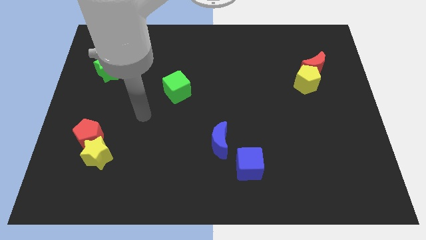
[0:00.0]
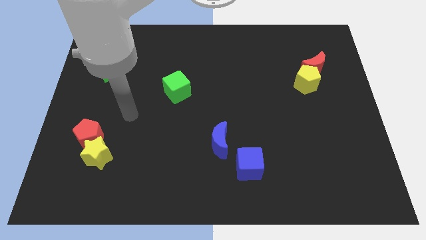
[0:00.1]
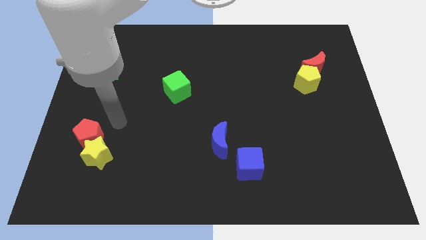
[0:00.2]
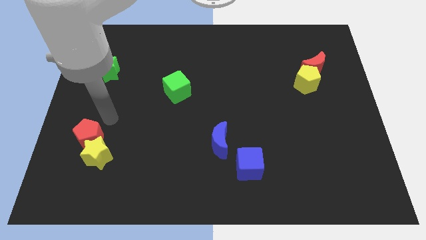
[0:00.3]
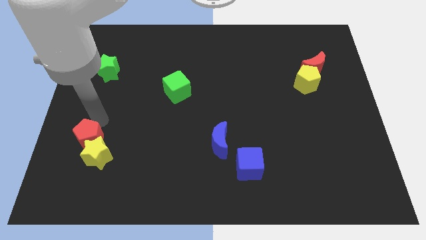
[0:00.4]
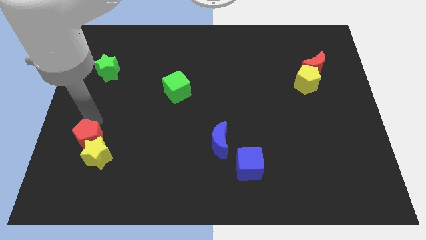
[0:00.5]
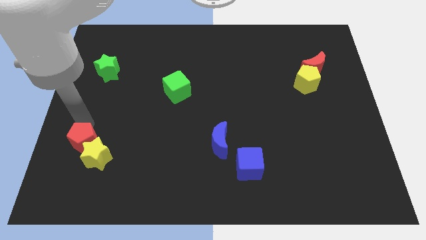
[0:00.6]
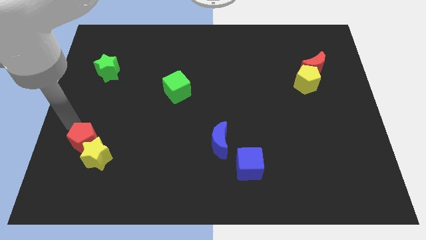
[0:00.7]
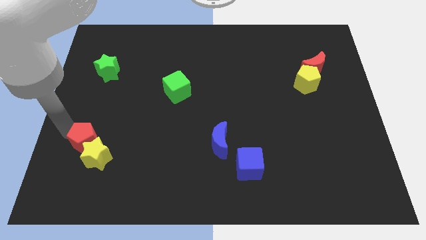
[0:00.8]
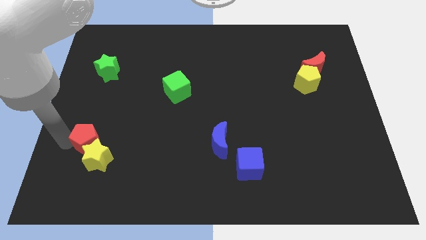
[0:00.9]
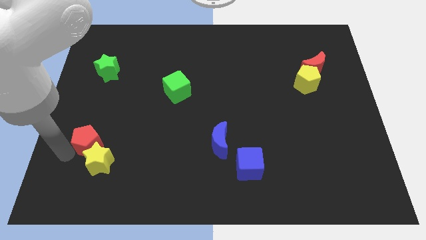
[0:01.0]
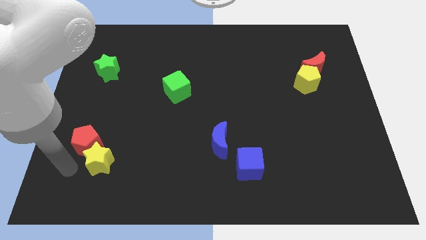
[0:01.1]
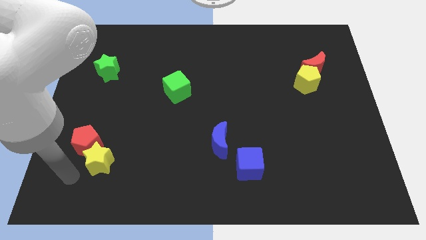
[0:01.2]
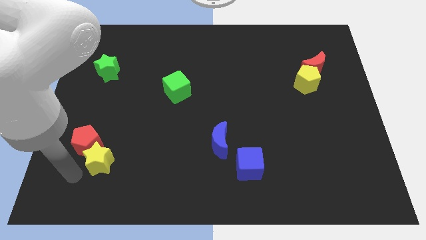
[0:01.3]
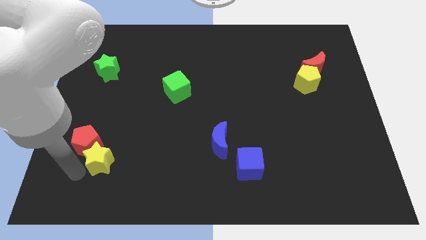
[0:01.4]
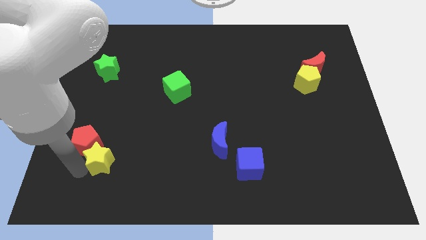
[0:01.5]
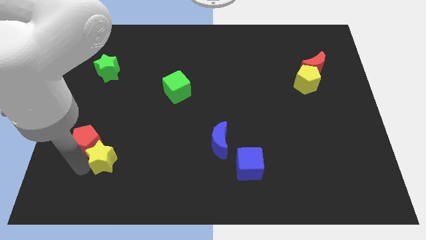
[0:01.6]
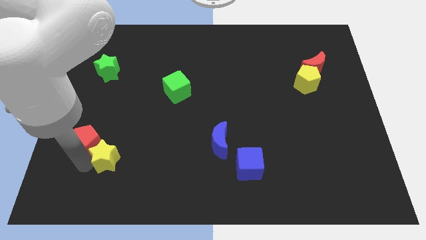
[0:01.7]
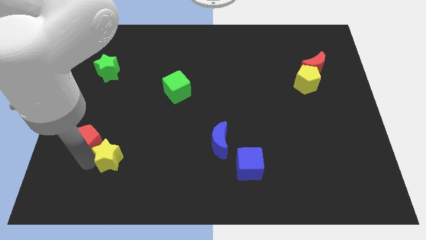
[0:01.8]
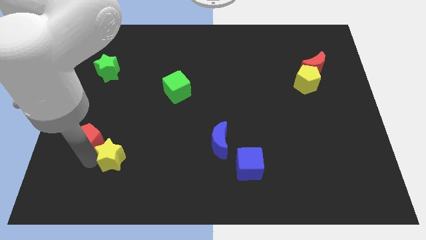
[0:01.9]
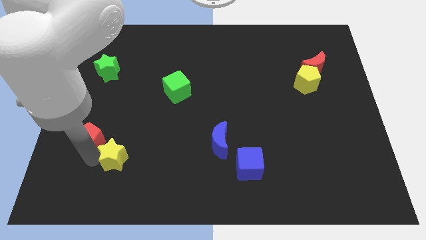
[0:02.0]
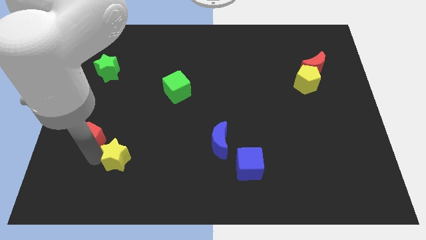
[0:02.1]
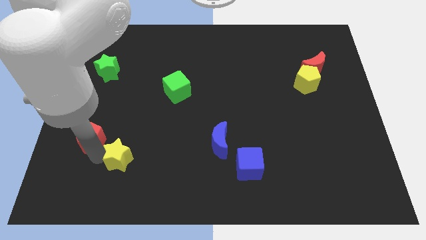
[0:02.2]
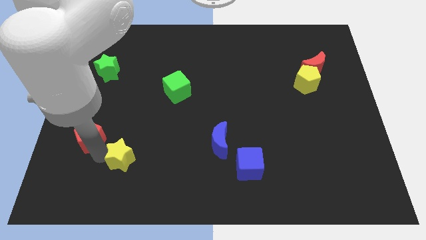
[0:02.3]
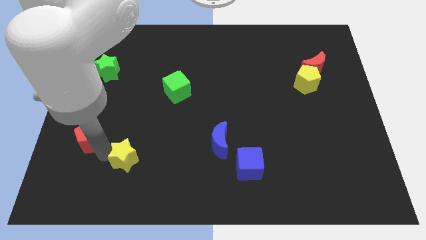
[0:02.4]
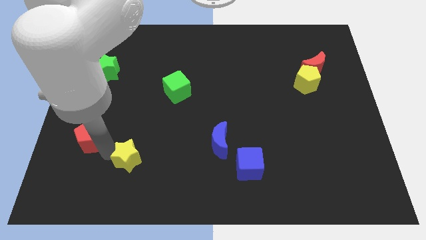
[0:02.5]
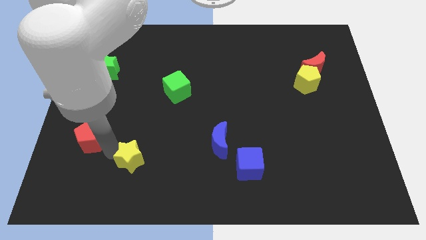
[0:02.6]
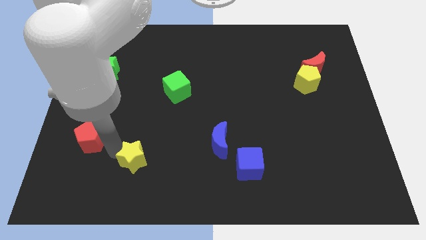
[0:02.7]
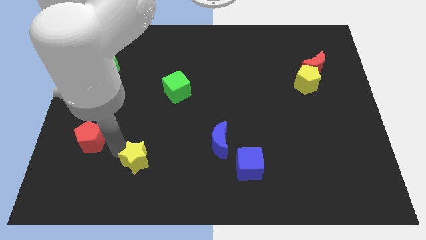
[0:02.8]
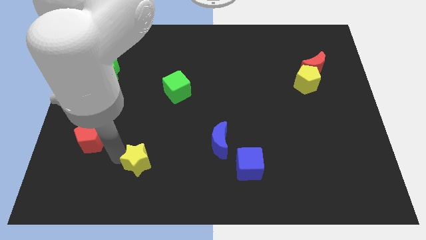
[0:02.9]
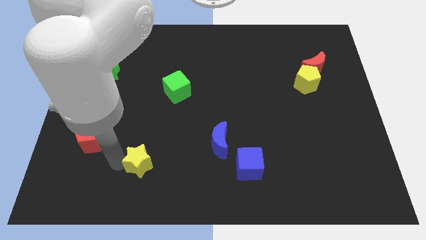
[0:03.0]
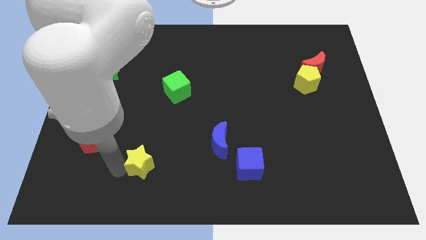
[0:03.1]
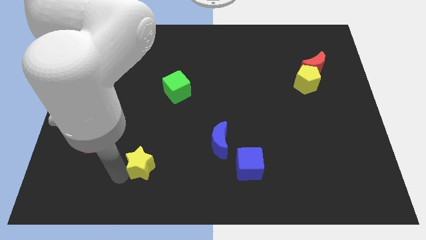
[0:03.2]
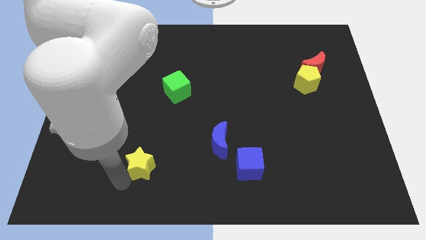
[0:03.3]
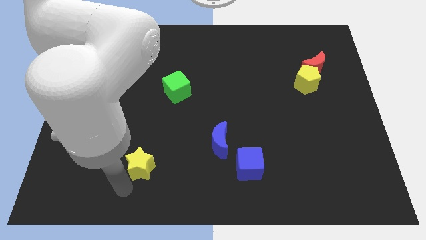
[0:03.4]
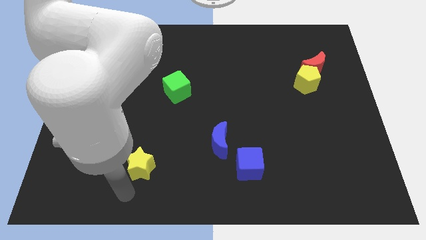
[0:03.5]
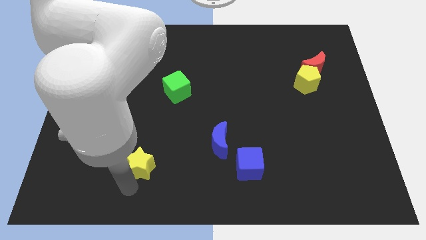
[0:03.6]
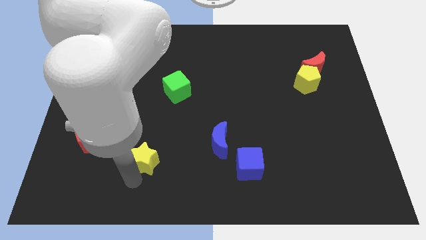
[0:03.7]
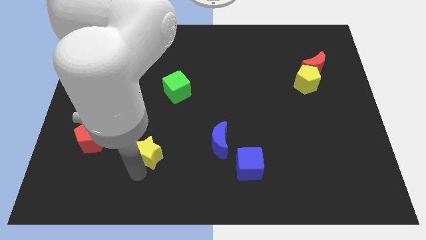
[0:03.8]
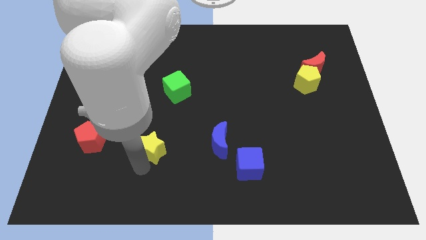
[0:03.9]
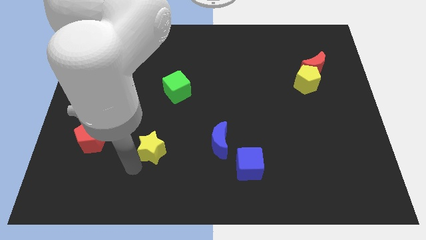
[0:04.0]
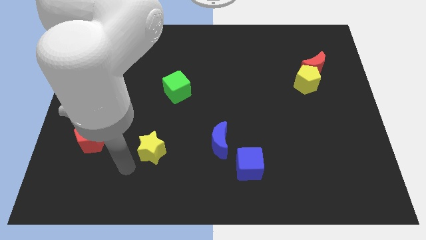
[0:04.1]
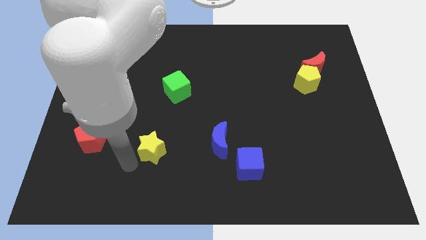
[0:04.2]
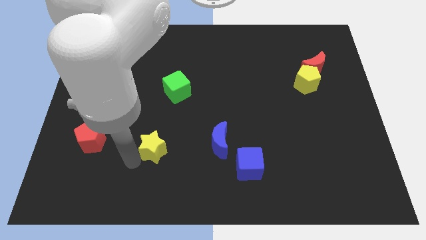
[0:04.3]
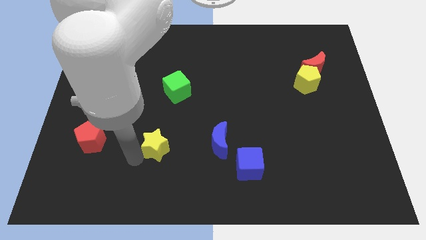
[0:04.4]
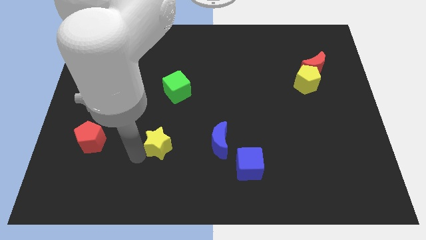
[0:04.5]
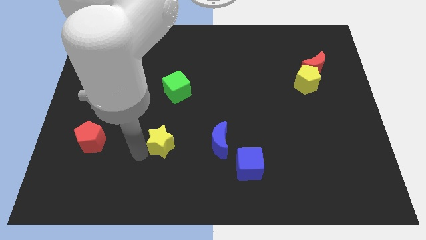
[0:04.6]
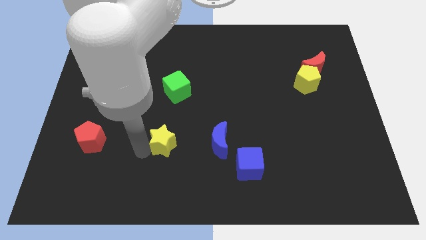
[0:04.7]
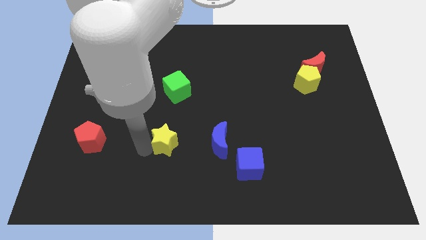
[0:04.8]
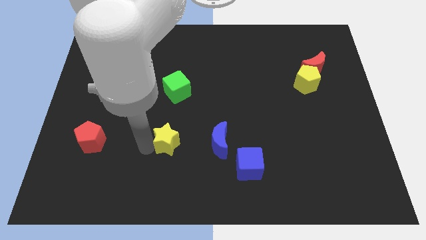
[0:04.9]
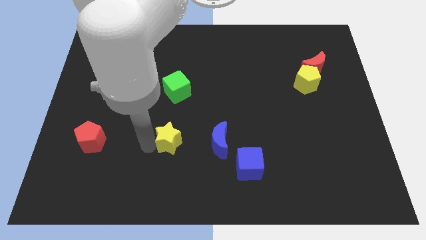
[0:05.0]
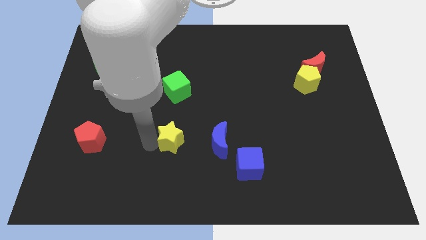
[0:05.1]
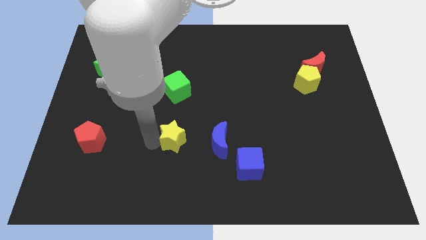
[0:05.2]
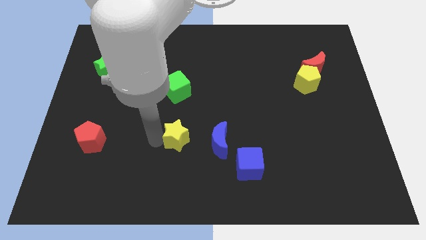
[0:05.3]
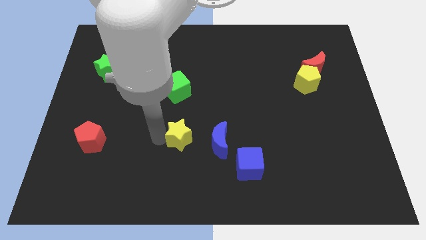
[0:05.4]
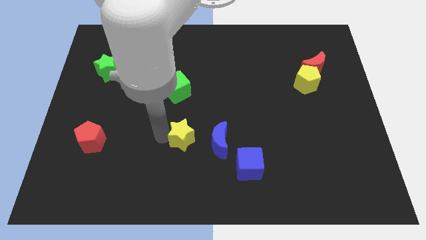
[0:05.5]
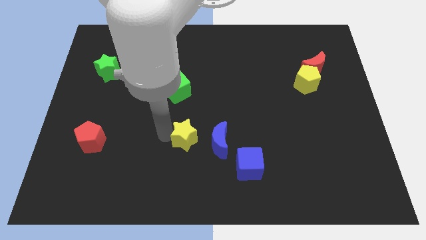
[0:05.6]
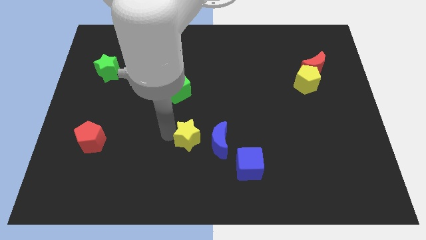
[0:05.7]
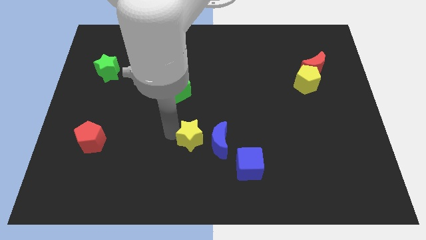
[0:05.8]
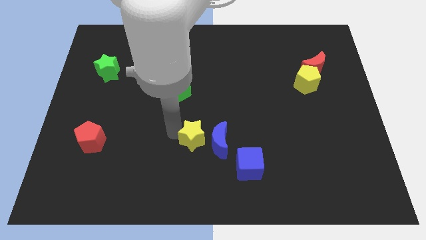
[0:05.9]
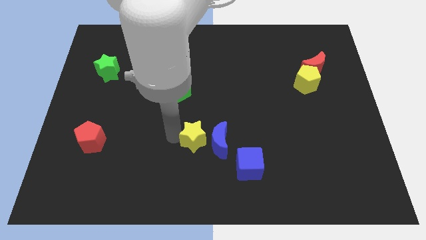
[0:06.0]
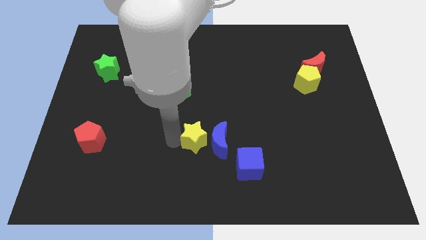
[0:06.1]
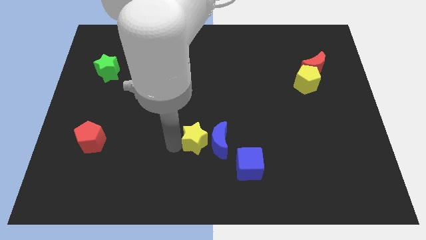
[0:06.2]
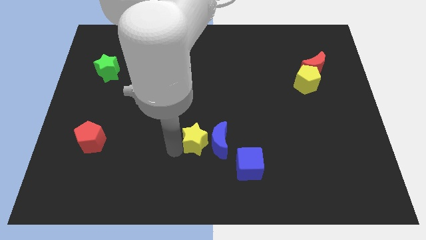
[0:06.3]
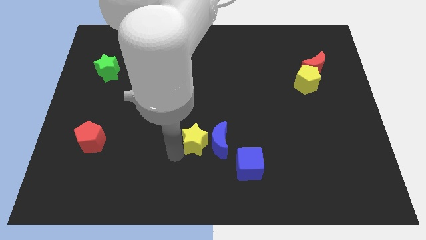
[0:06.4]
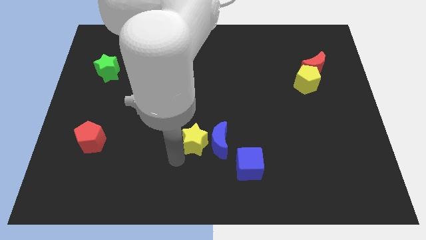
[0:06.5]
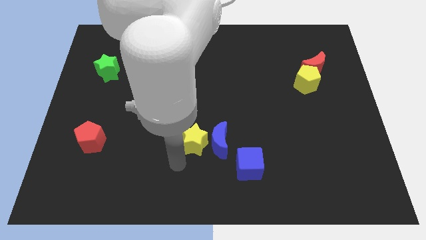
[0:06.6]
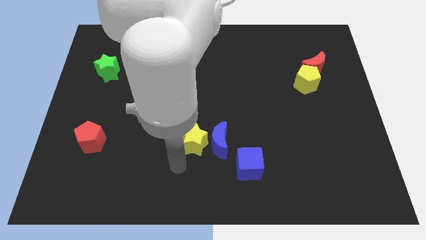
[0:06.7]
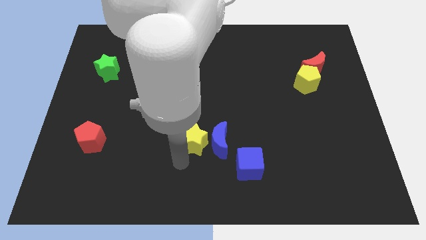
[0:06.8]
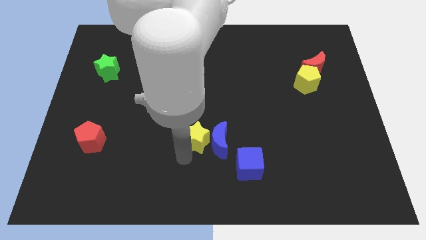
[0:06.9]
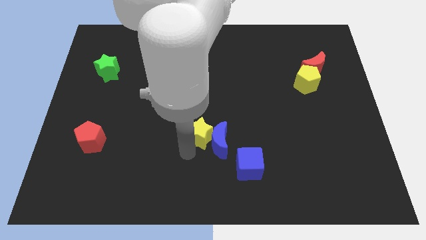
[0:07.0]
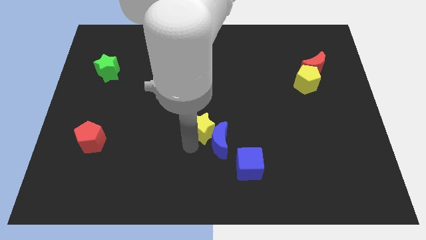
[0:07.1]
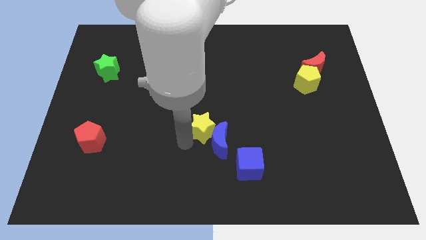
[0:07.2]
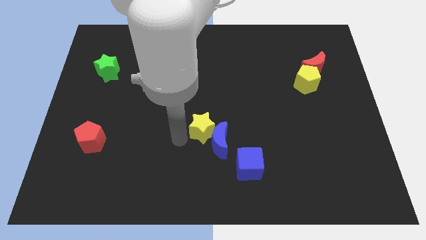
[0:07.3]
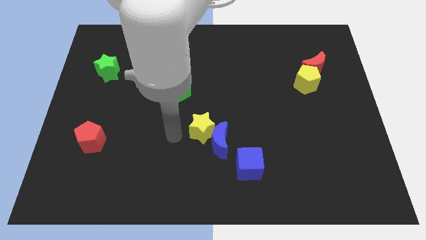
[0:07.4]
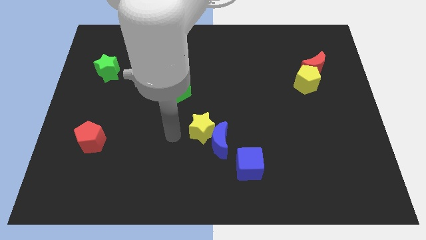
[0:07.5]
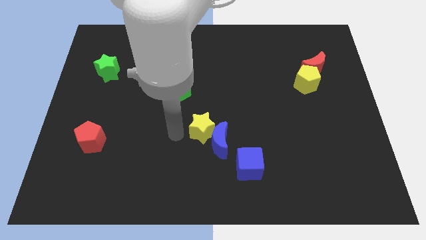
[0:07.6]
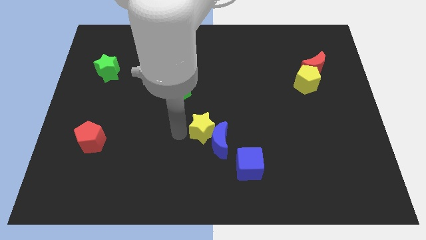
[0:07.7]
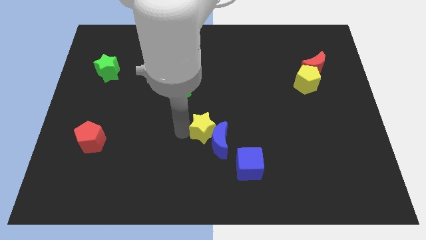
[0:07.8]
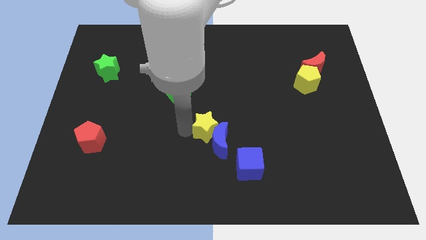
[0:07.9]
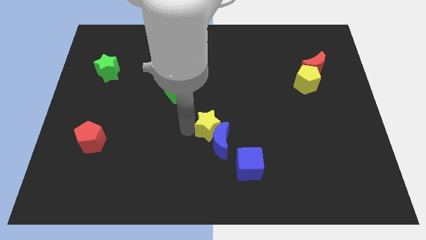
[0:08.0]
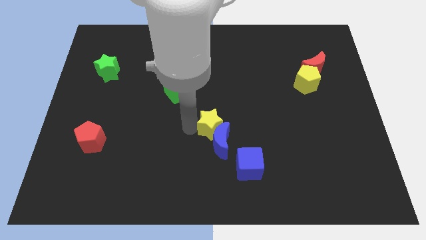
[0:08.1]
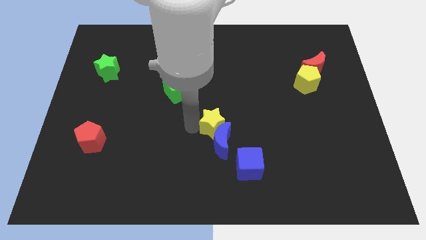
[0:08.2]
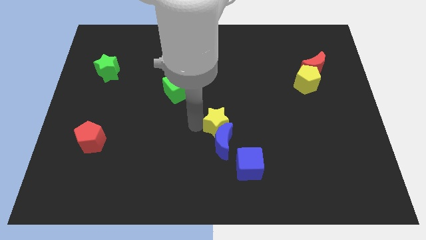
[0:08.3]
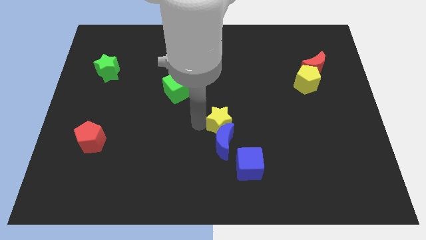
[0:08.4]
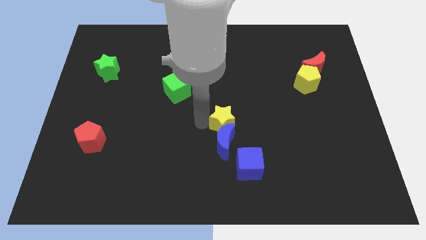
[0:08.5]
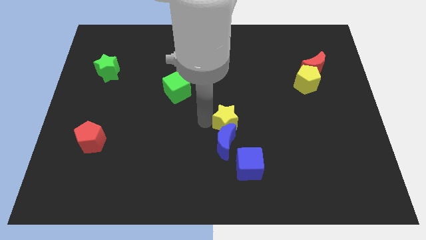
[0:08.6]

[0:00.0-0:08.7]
put the yellow star above the blue cube
